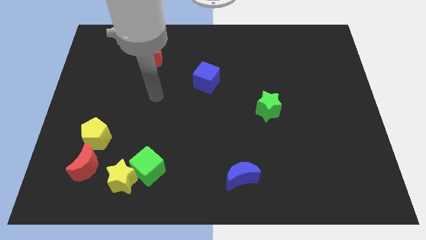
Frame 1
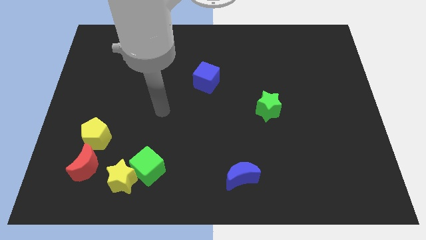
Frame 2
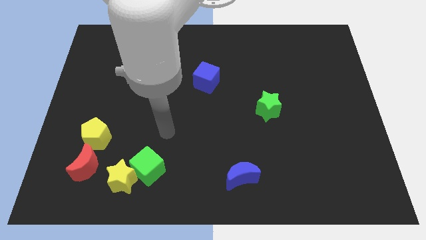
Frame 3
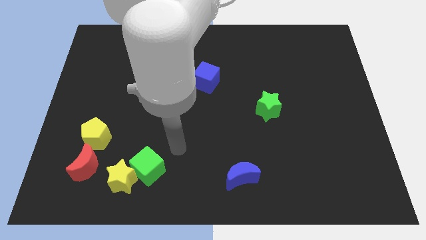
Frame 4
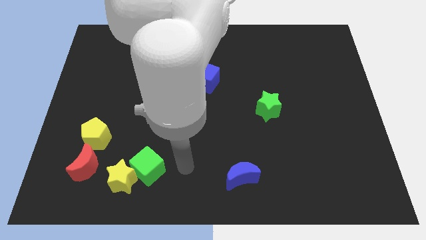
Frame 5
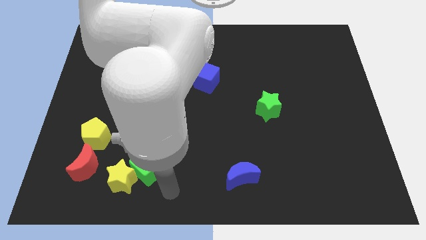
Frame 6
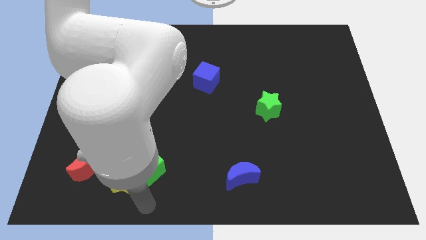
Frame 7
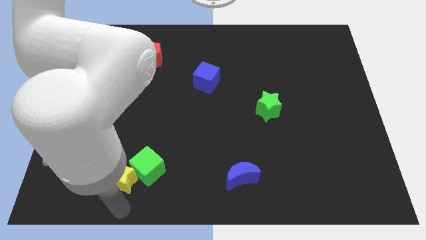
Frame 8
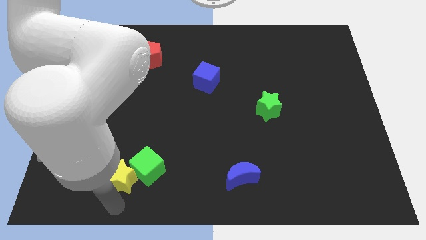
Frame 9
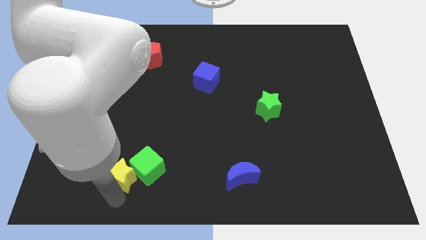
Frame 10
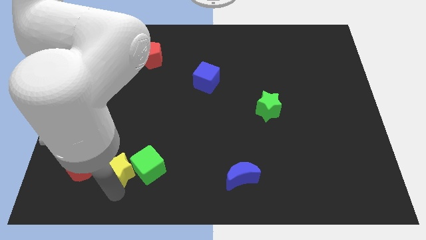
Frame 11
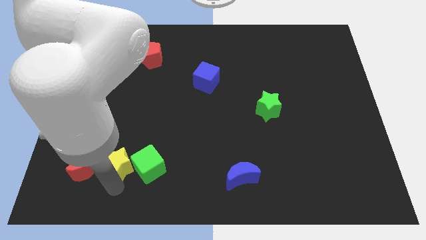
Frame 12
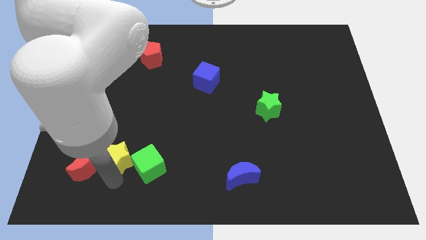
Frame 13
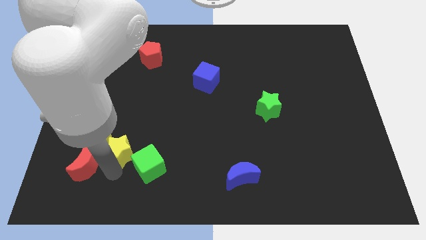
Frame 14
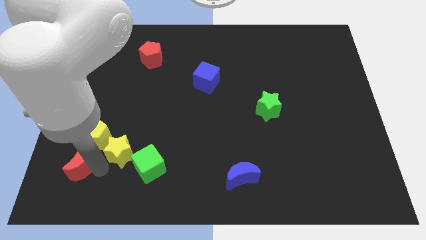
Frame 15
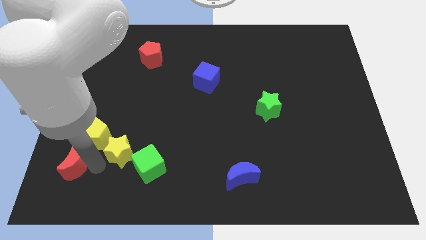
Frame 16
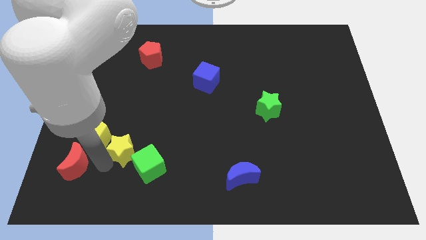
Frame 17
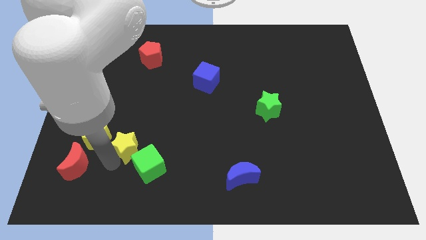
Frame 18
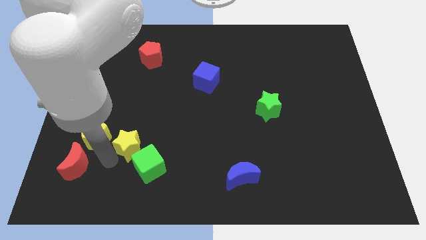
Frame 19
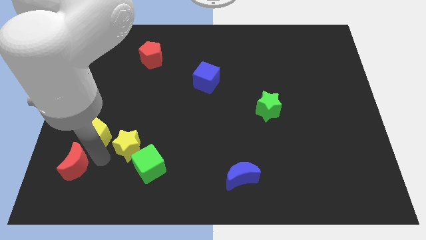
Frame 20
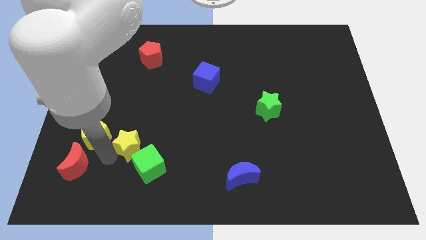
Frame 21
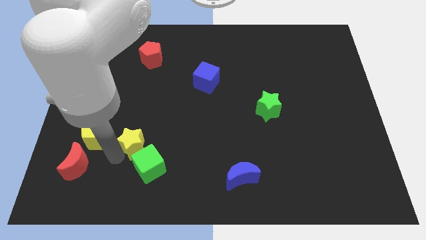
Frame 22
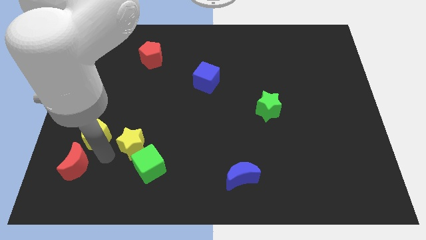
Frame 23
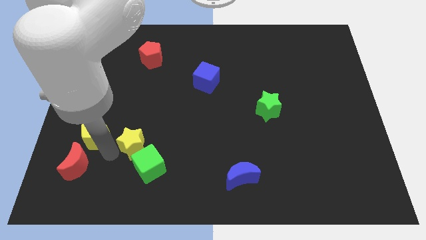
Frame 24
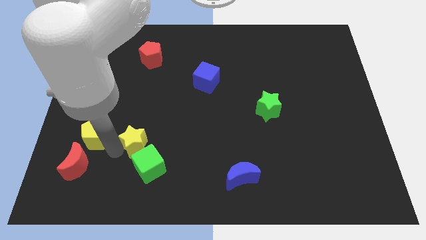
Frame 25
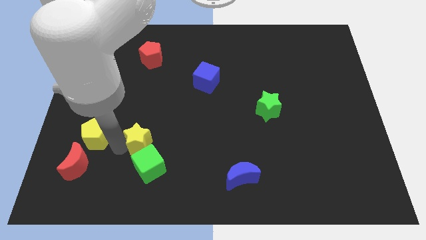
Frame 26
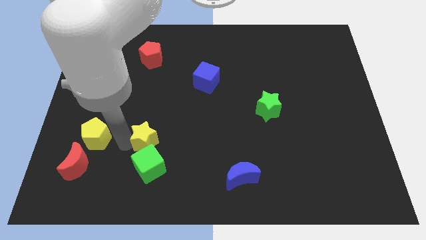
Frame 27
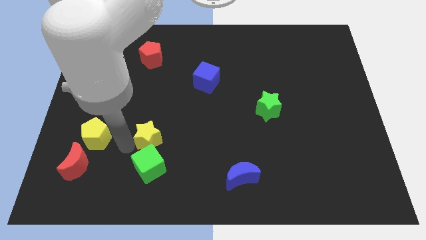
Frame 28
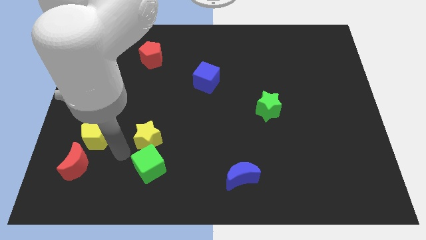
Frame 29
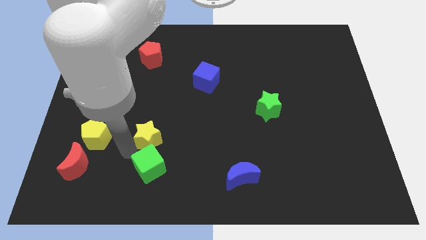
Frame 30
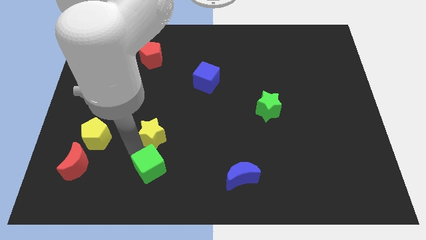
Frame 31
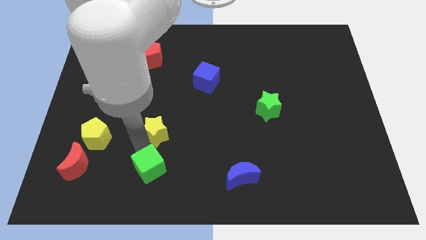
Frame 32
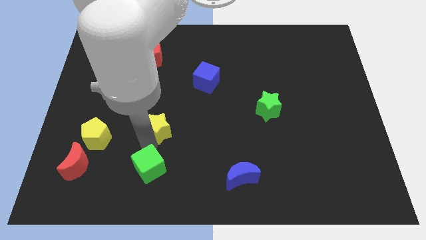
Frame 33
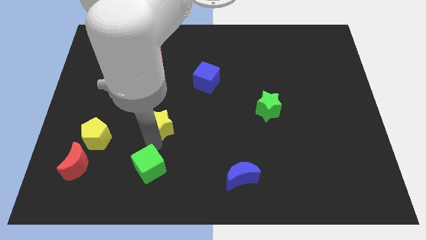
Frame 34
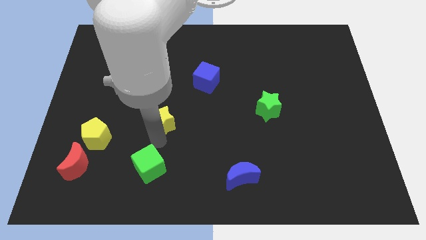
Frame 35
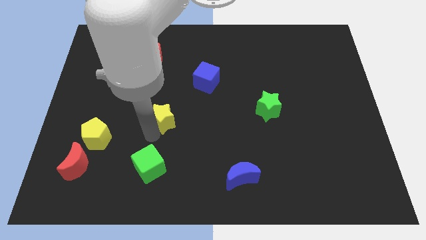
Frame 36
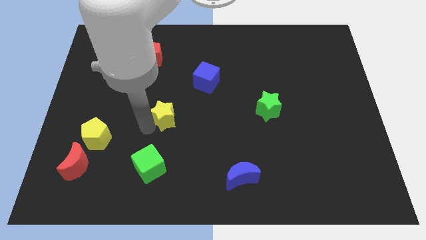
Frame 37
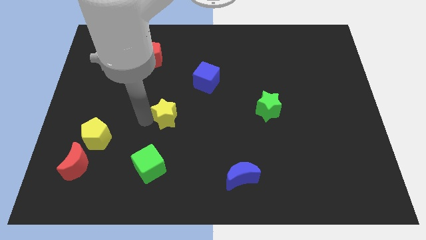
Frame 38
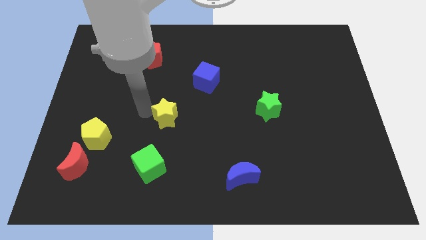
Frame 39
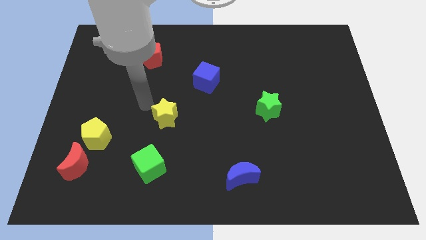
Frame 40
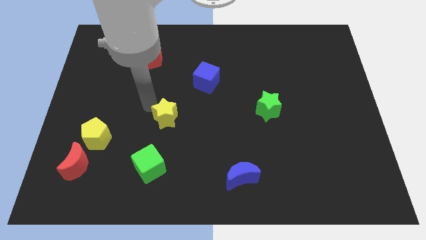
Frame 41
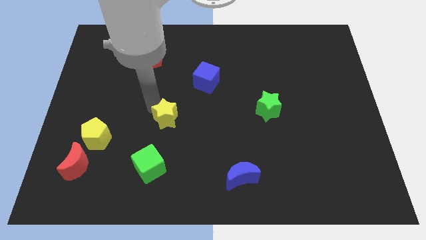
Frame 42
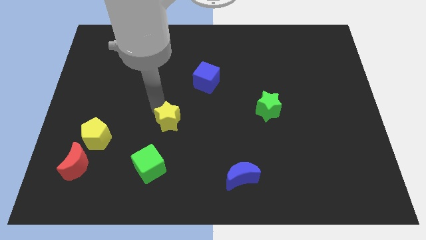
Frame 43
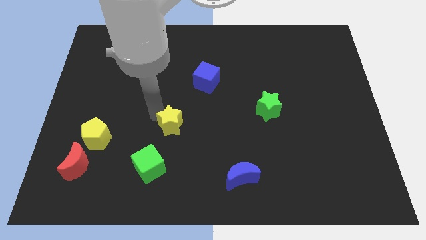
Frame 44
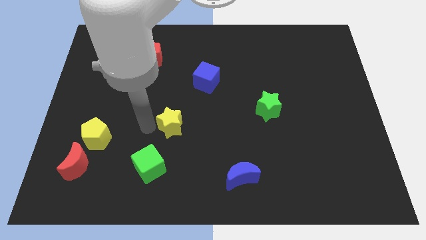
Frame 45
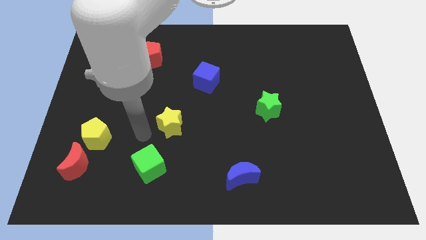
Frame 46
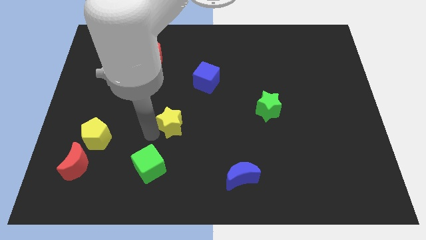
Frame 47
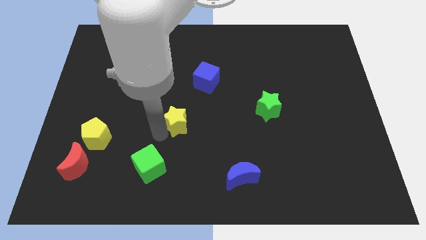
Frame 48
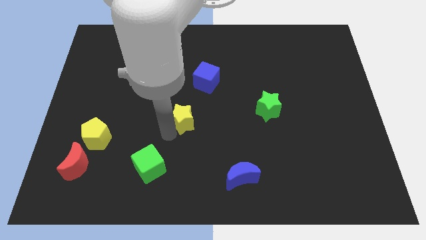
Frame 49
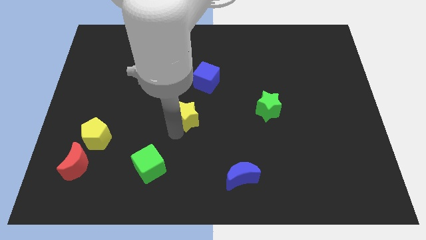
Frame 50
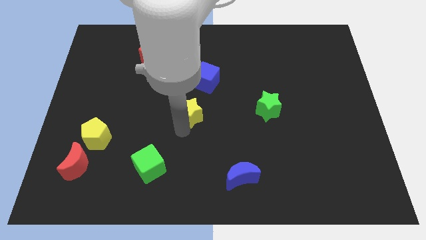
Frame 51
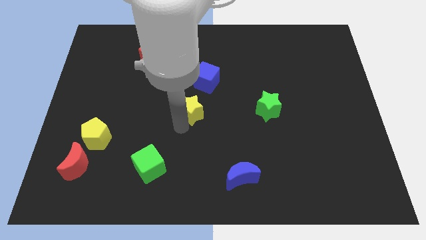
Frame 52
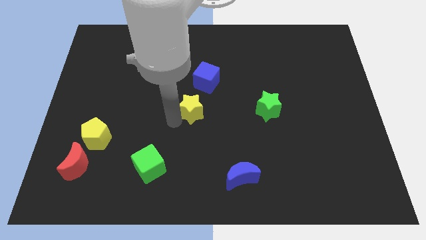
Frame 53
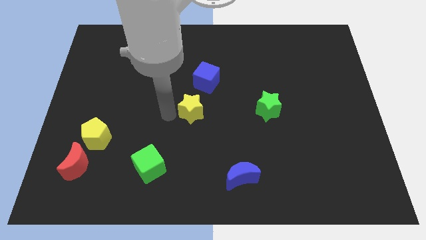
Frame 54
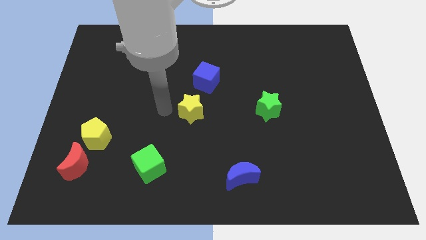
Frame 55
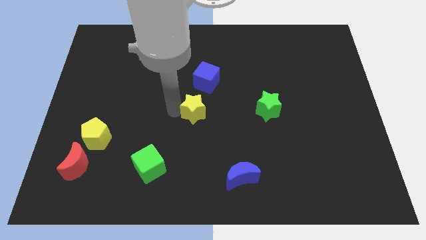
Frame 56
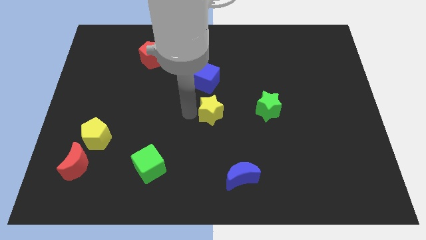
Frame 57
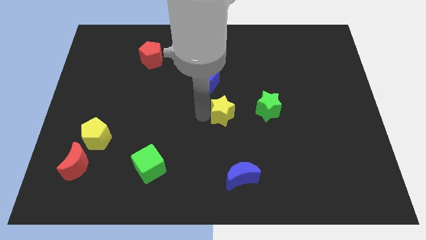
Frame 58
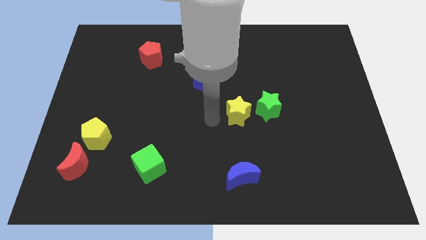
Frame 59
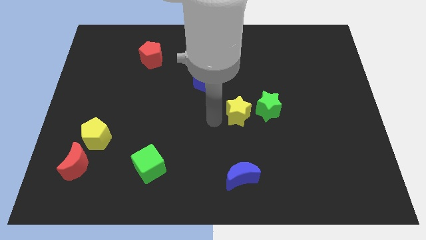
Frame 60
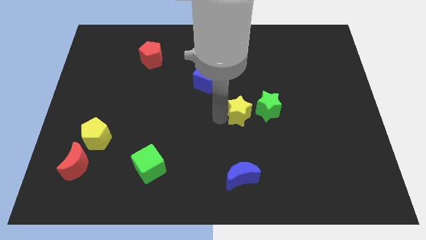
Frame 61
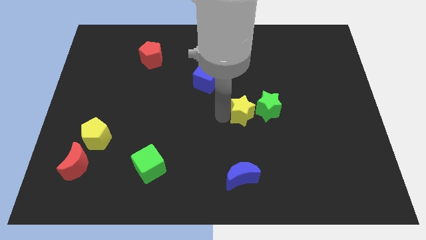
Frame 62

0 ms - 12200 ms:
put the yellow star next to the green star

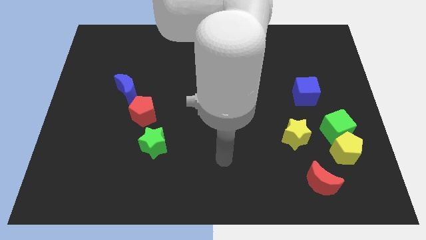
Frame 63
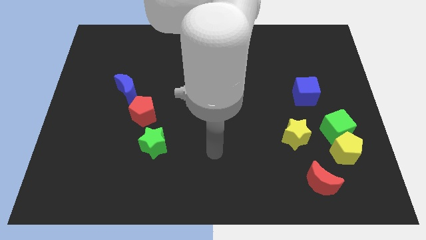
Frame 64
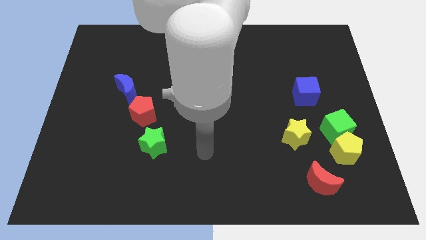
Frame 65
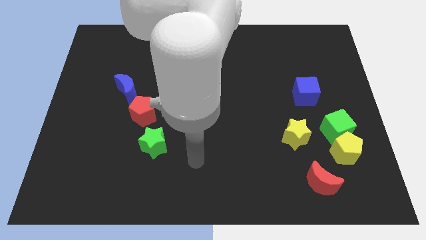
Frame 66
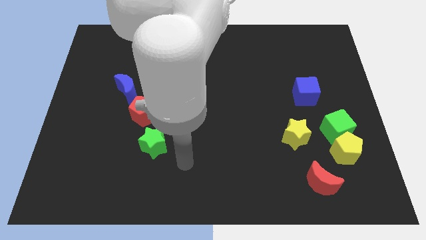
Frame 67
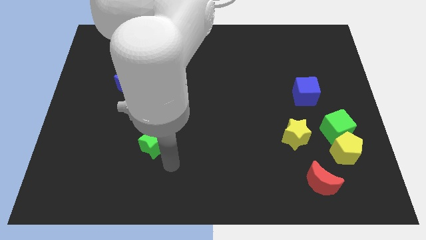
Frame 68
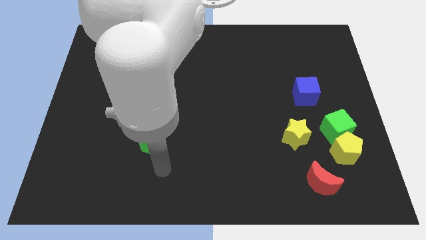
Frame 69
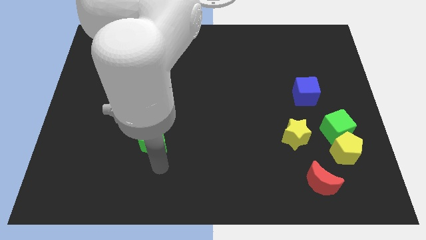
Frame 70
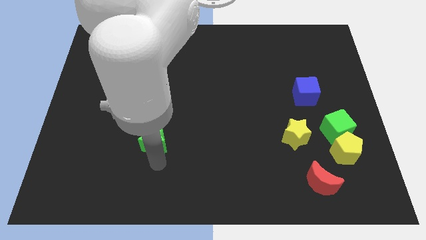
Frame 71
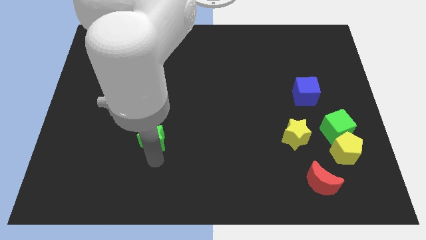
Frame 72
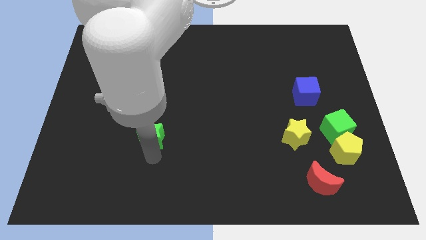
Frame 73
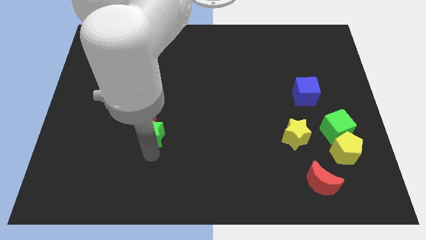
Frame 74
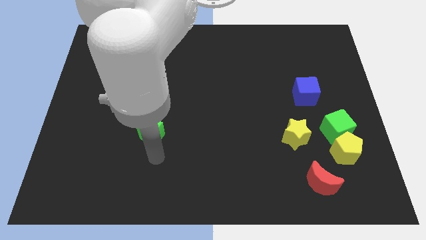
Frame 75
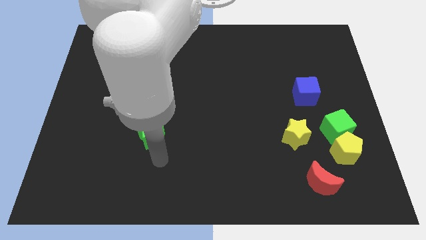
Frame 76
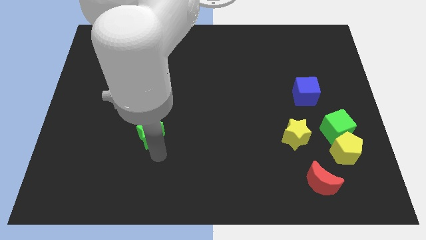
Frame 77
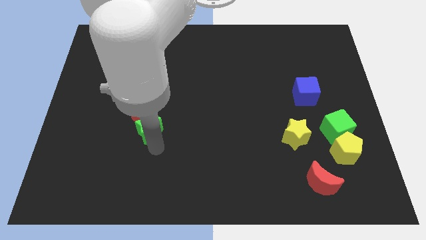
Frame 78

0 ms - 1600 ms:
move the green star close to the red pentagon
